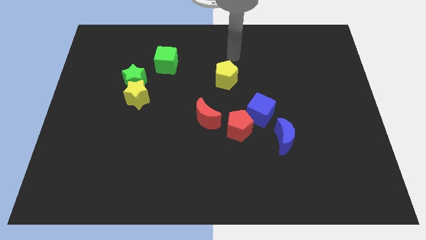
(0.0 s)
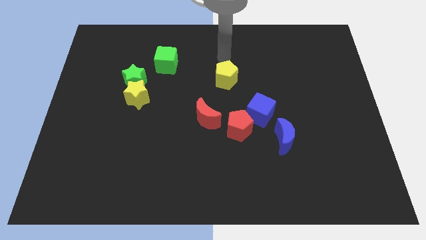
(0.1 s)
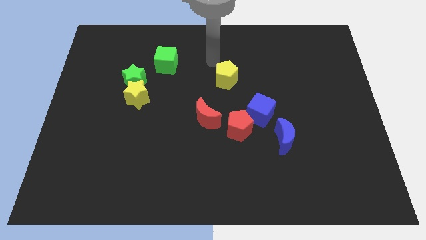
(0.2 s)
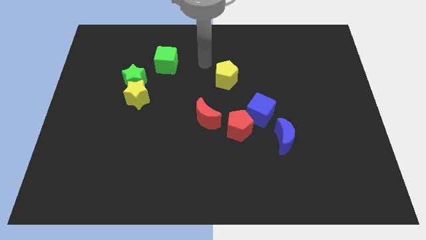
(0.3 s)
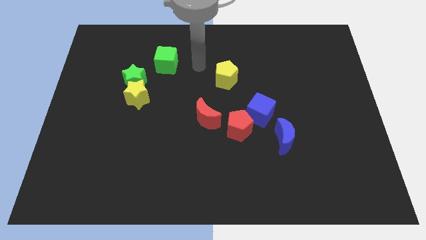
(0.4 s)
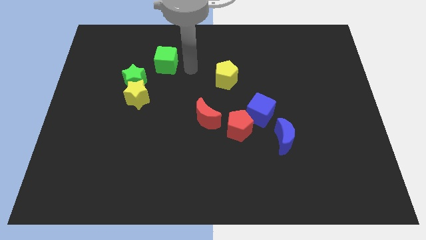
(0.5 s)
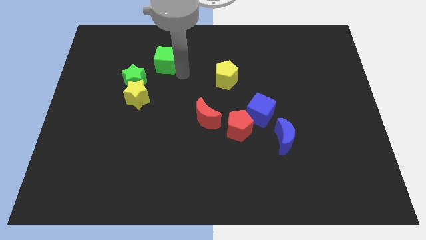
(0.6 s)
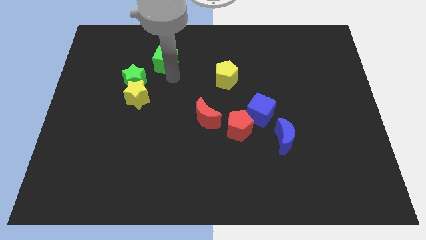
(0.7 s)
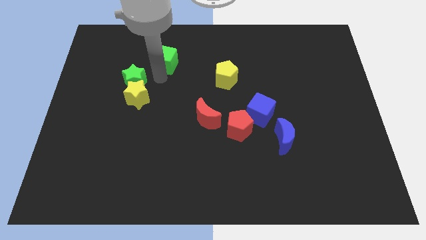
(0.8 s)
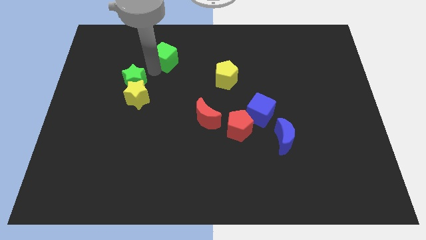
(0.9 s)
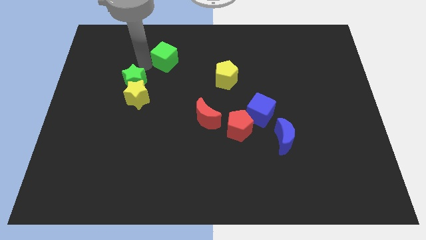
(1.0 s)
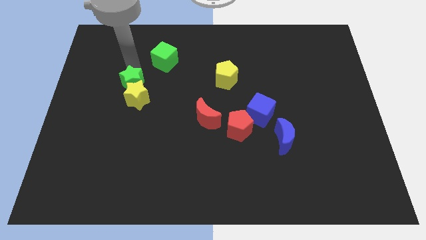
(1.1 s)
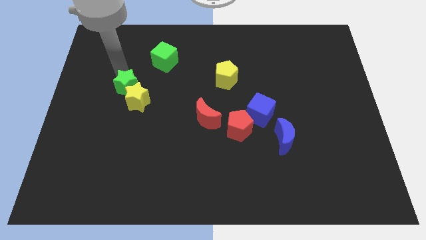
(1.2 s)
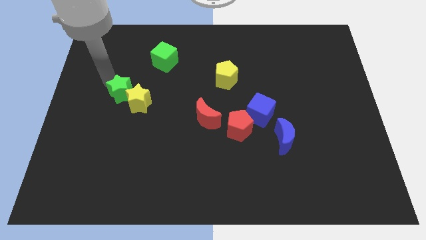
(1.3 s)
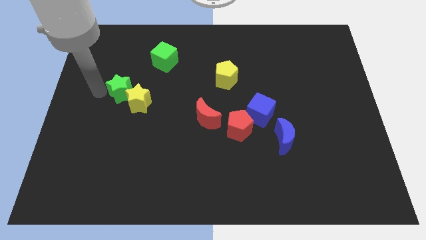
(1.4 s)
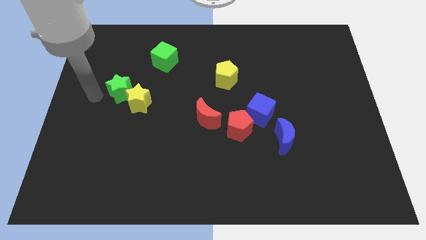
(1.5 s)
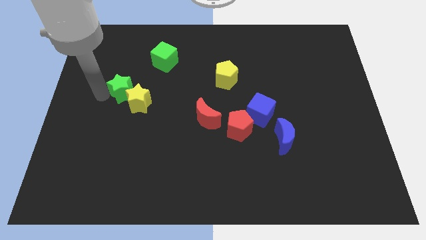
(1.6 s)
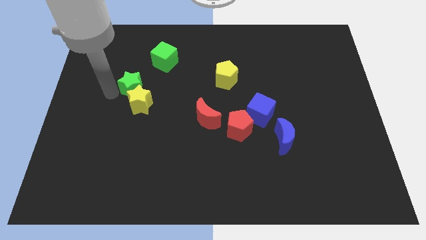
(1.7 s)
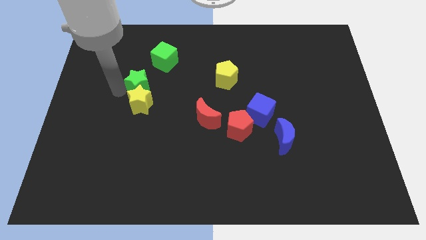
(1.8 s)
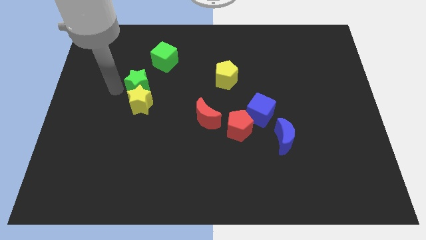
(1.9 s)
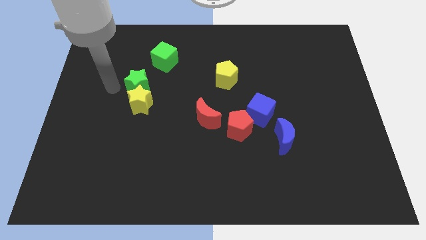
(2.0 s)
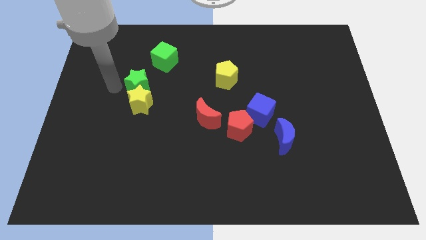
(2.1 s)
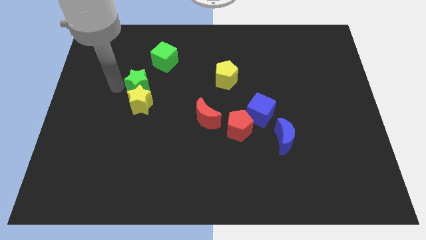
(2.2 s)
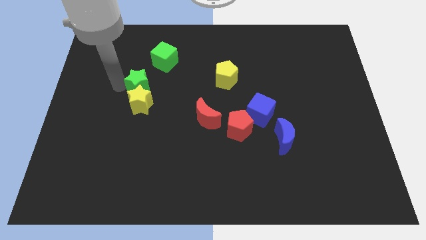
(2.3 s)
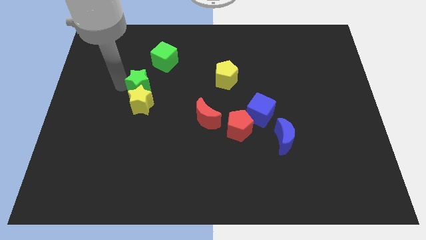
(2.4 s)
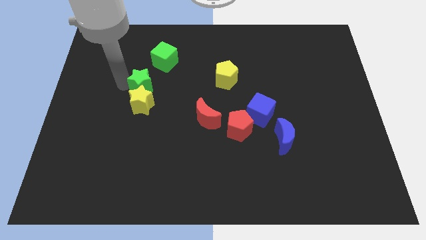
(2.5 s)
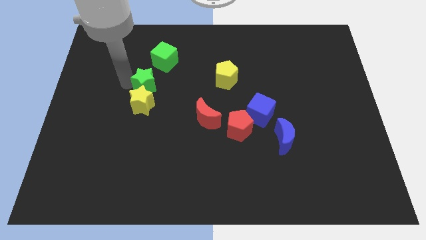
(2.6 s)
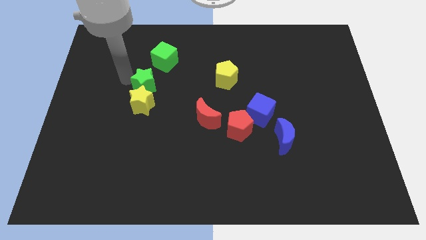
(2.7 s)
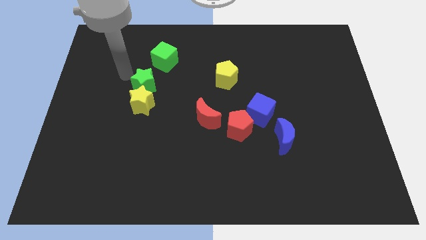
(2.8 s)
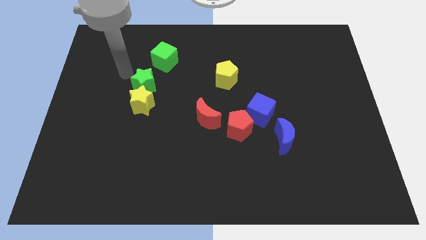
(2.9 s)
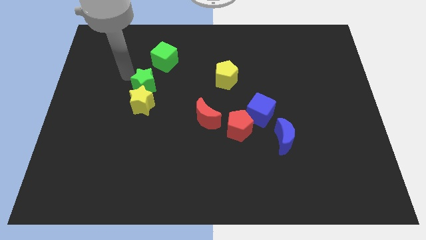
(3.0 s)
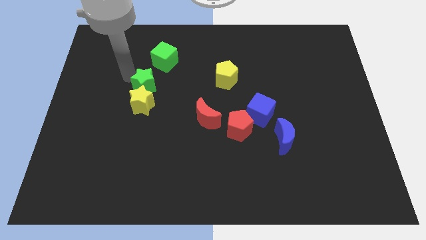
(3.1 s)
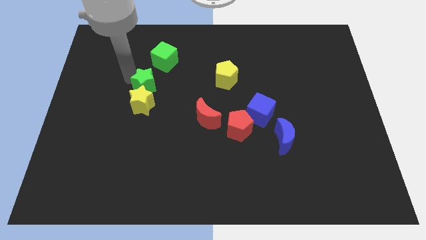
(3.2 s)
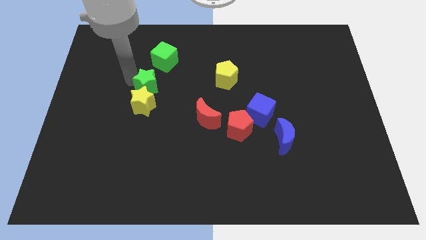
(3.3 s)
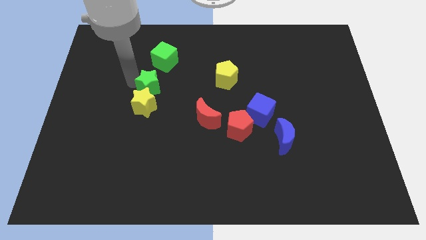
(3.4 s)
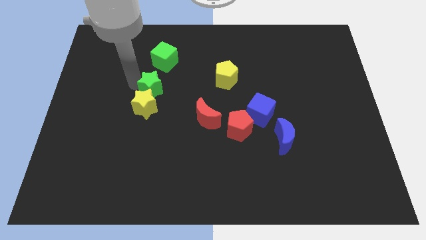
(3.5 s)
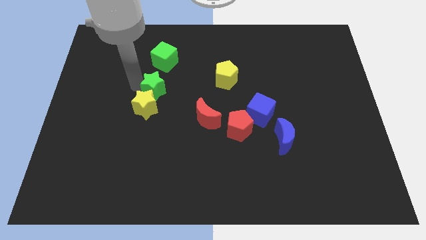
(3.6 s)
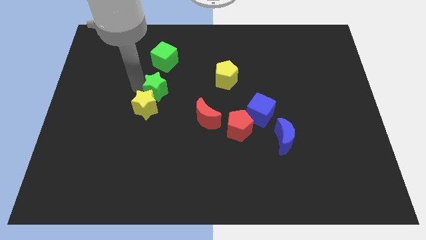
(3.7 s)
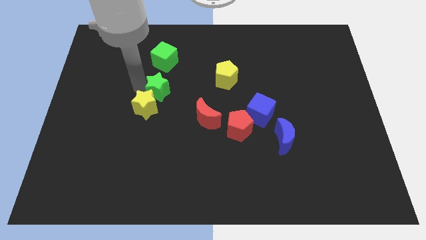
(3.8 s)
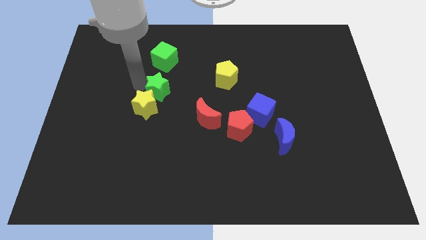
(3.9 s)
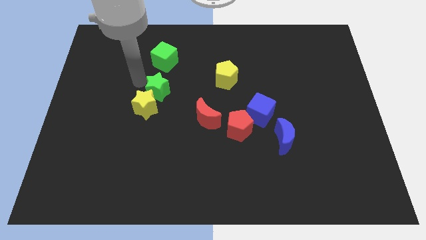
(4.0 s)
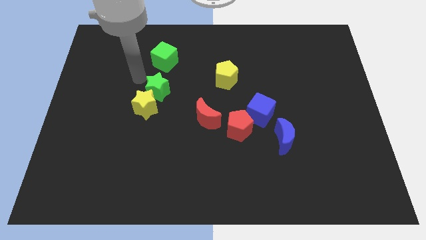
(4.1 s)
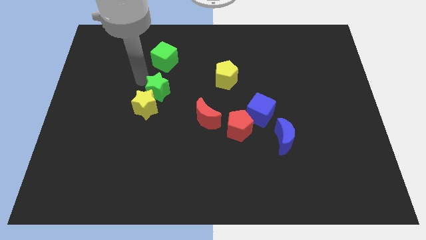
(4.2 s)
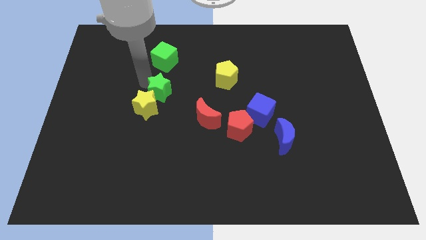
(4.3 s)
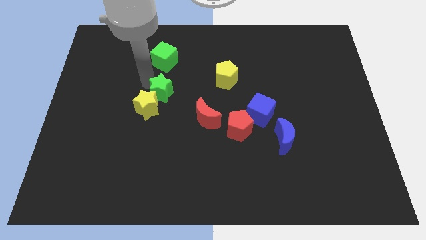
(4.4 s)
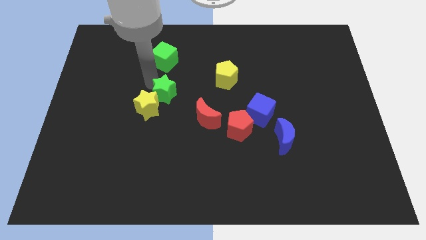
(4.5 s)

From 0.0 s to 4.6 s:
slide the green star a bit down and right diagonally

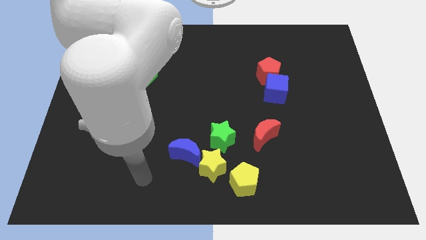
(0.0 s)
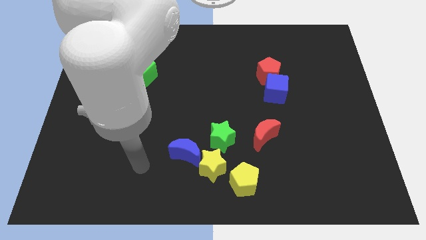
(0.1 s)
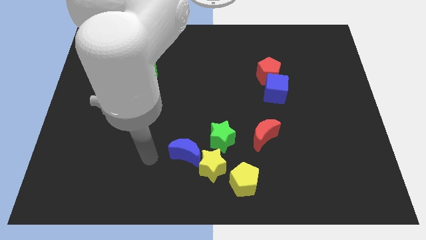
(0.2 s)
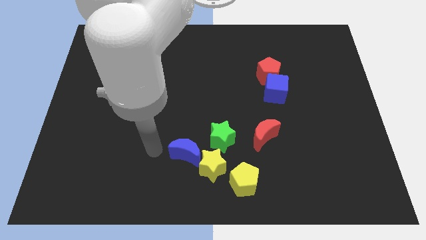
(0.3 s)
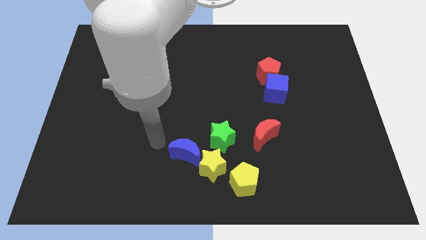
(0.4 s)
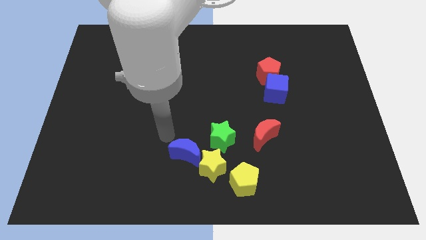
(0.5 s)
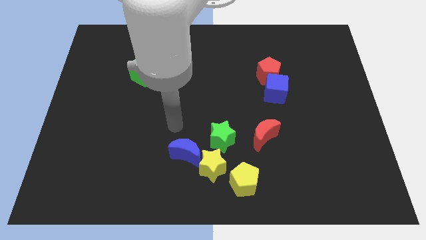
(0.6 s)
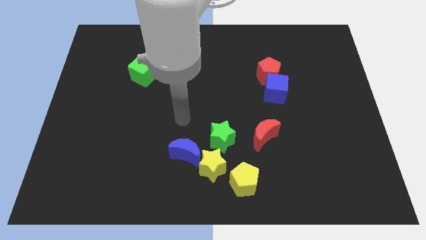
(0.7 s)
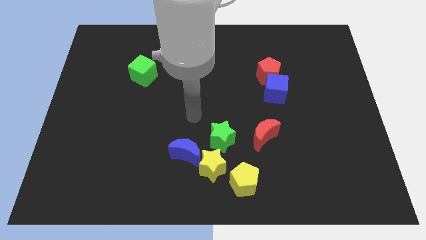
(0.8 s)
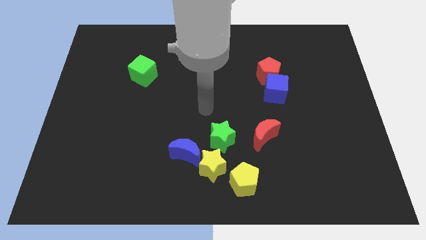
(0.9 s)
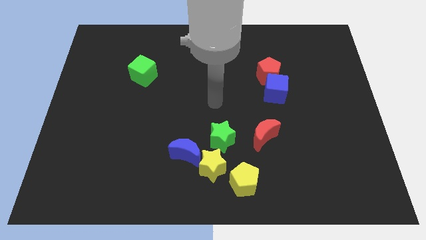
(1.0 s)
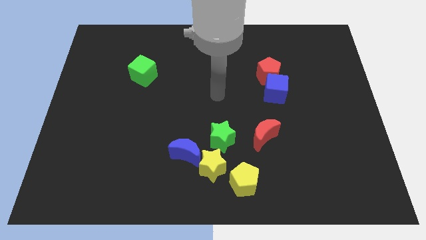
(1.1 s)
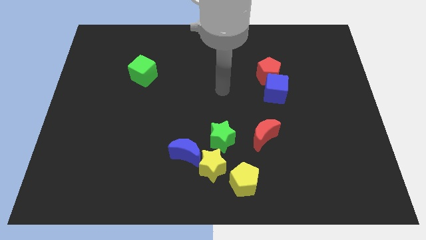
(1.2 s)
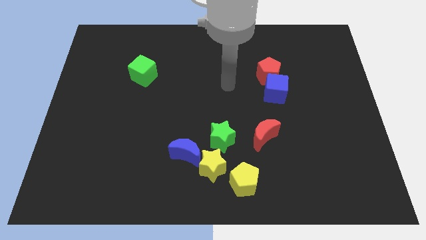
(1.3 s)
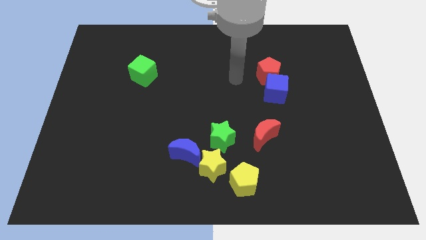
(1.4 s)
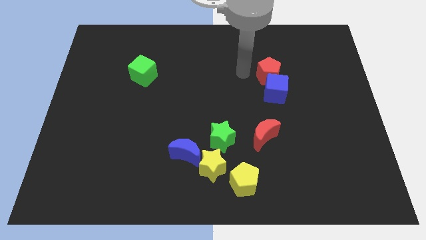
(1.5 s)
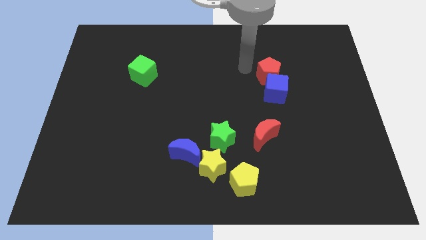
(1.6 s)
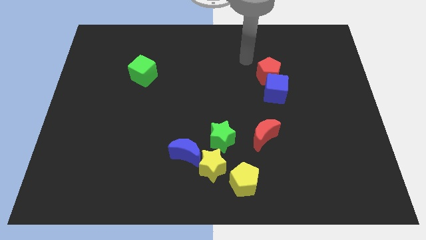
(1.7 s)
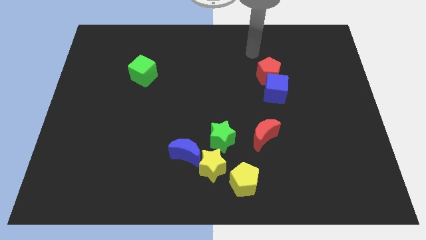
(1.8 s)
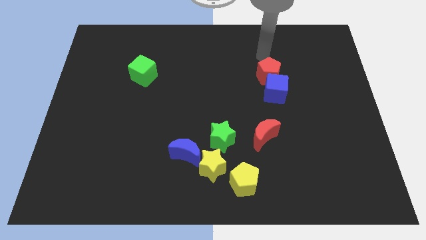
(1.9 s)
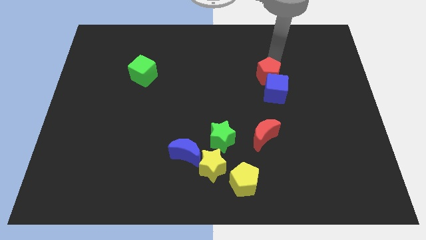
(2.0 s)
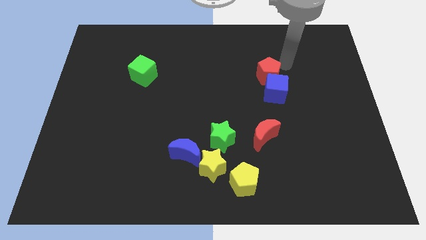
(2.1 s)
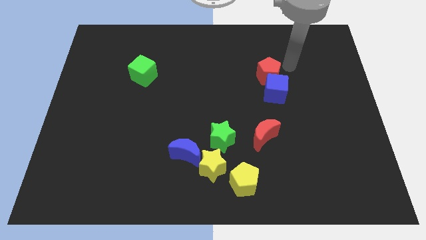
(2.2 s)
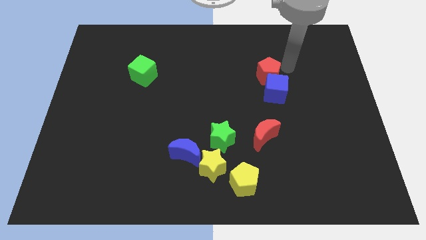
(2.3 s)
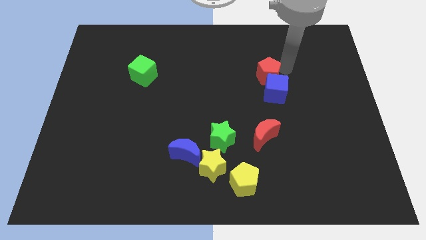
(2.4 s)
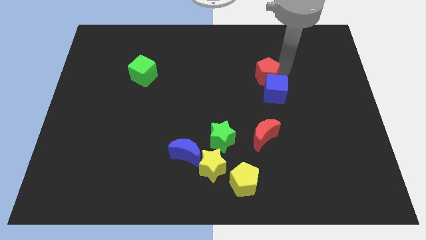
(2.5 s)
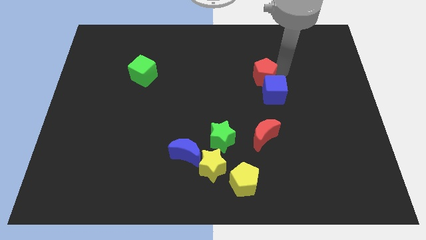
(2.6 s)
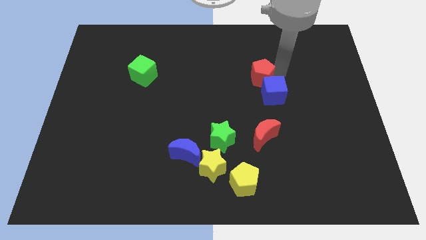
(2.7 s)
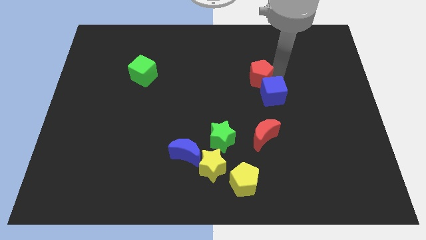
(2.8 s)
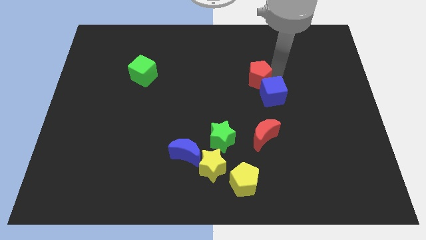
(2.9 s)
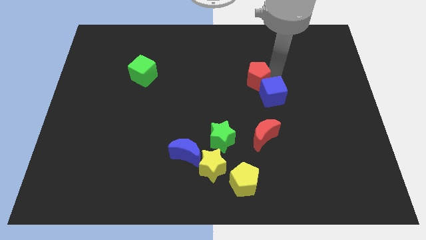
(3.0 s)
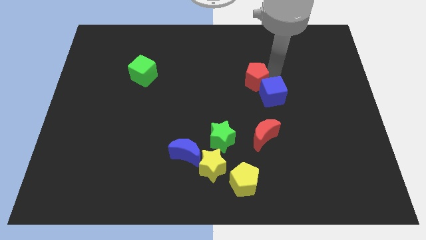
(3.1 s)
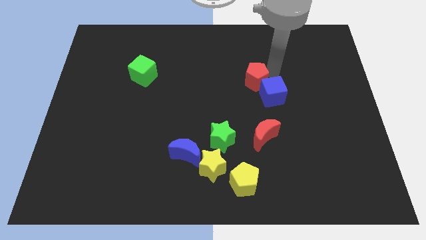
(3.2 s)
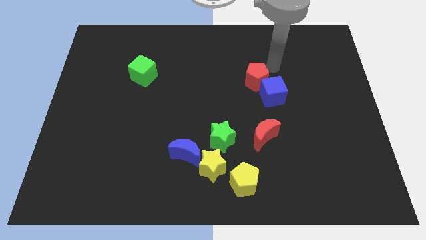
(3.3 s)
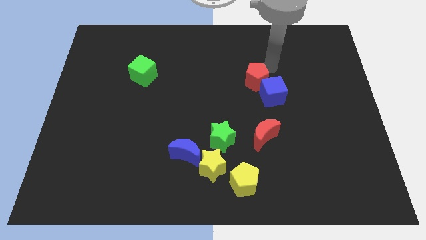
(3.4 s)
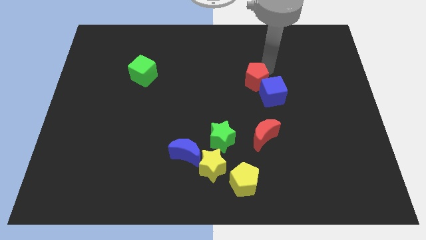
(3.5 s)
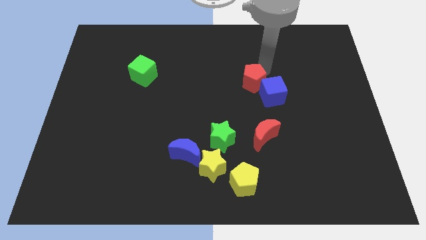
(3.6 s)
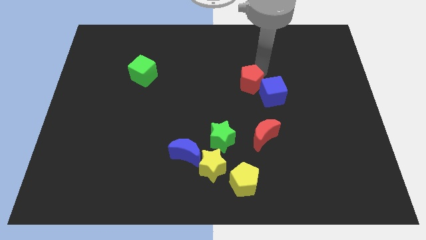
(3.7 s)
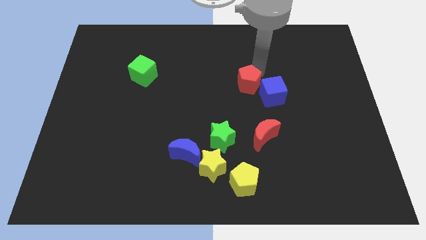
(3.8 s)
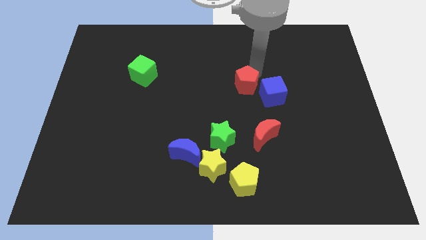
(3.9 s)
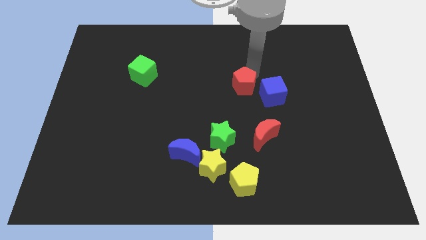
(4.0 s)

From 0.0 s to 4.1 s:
push the red pentagon diagonally downwards and to the left somewhat
